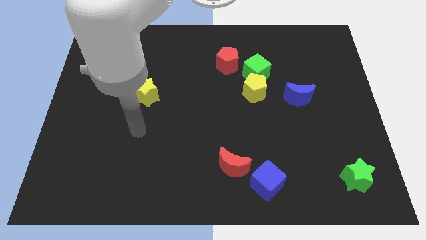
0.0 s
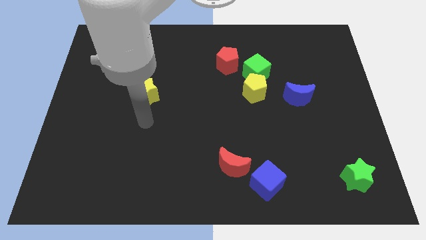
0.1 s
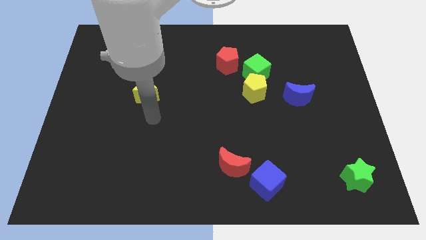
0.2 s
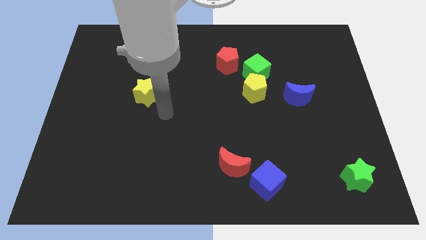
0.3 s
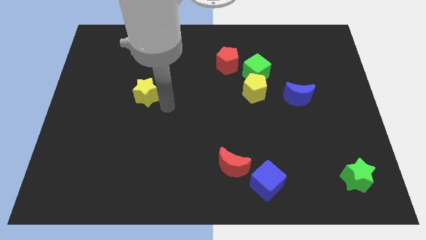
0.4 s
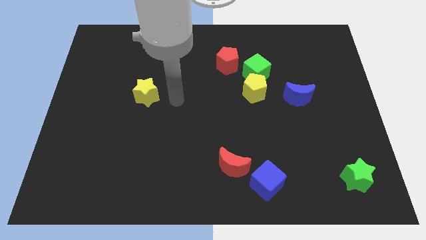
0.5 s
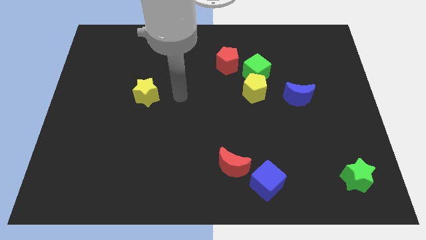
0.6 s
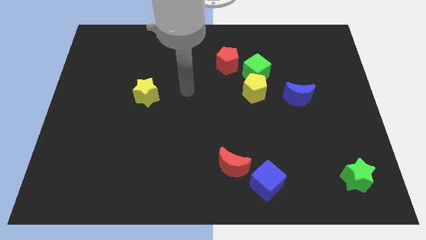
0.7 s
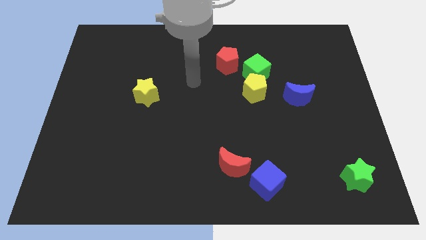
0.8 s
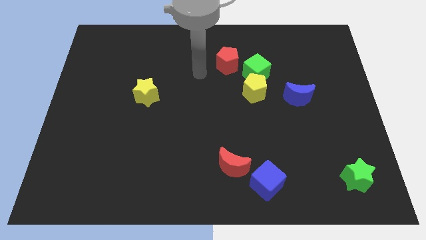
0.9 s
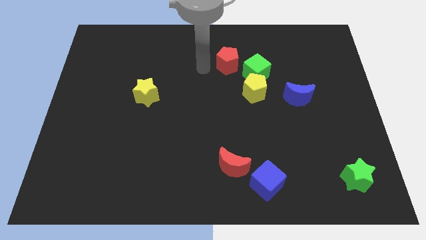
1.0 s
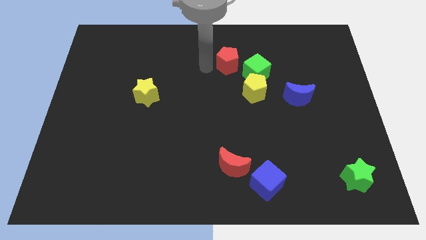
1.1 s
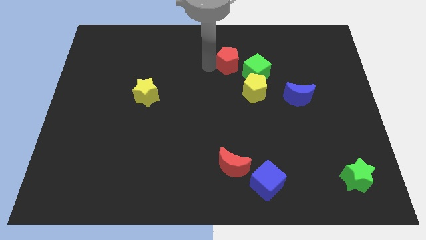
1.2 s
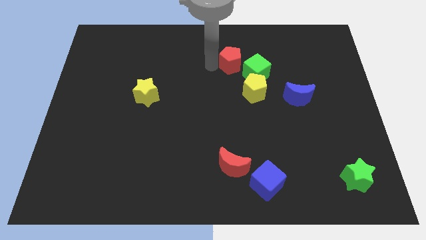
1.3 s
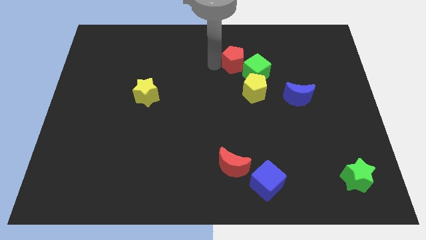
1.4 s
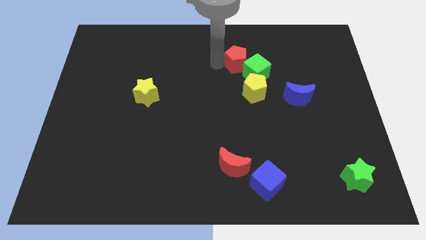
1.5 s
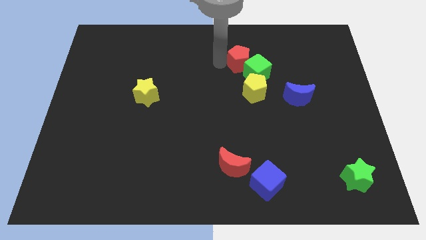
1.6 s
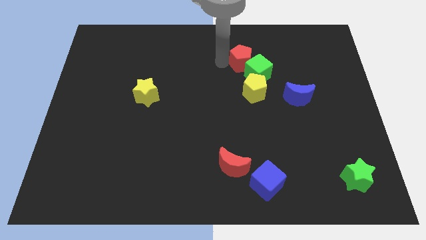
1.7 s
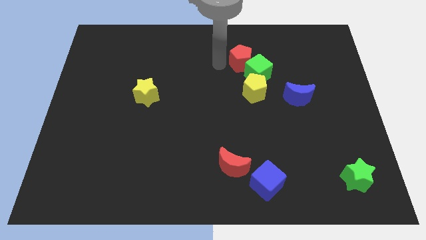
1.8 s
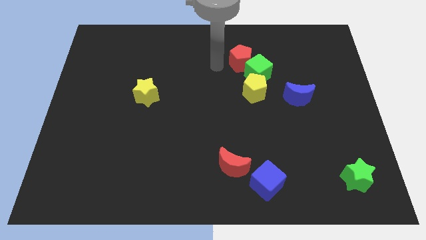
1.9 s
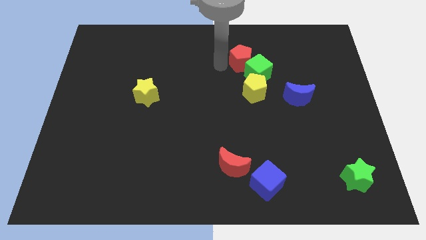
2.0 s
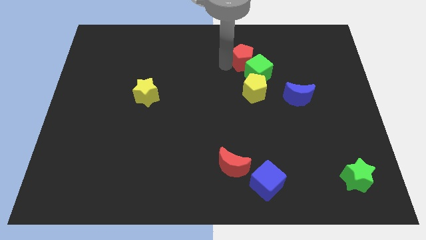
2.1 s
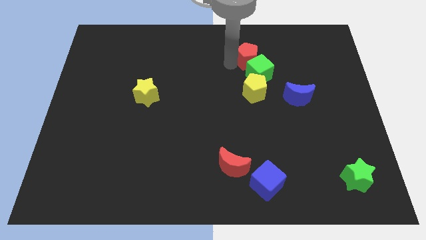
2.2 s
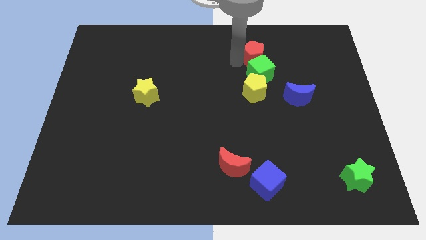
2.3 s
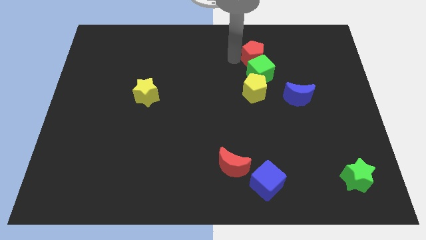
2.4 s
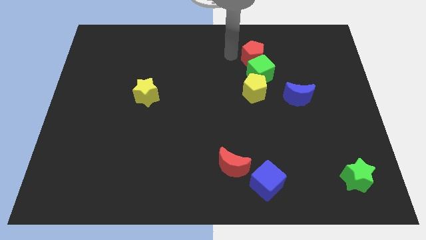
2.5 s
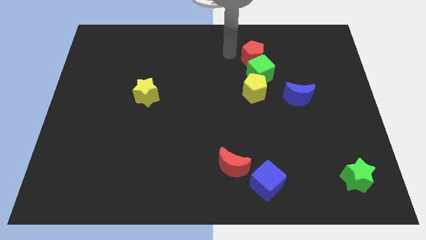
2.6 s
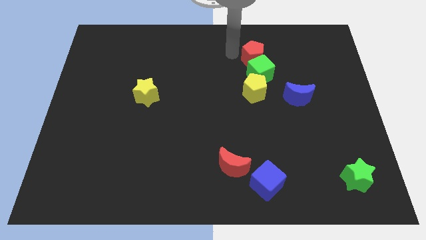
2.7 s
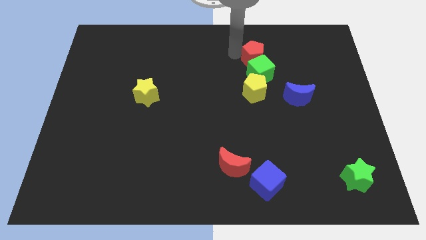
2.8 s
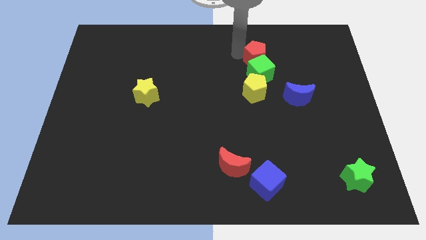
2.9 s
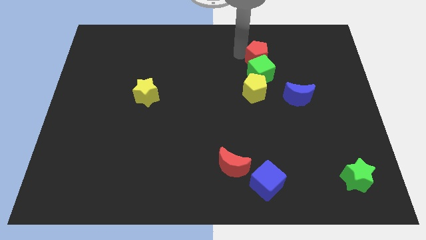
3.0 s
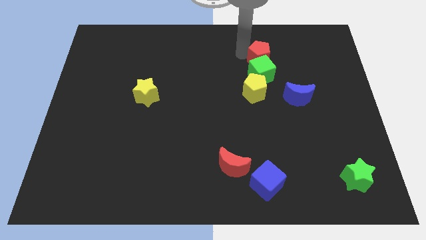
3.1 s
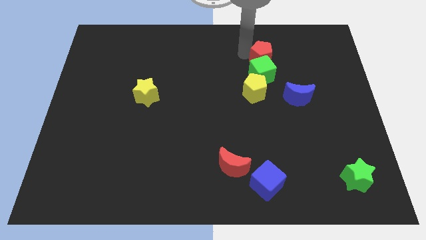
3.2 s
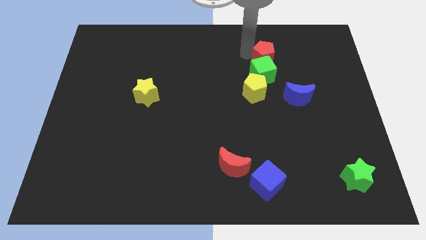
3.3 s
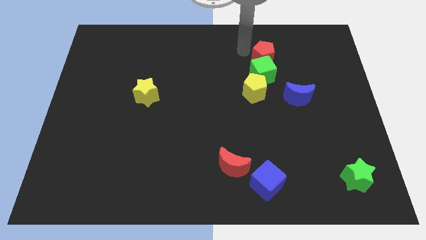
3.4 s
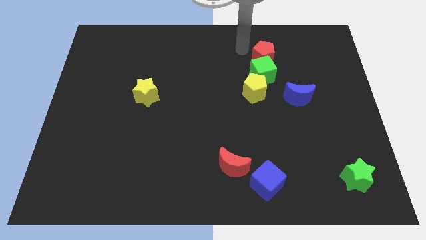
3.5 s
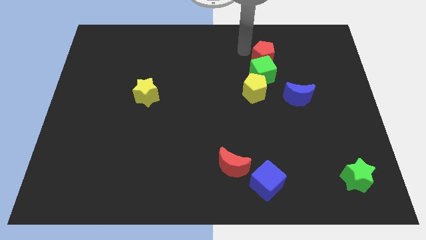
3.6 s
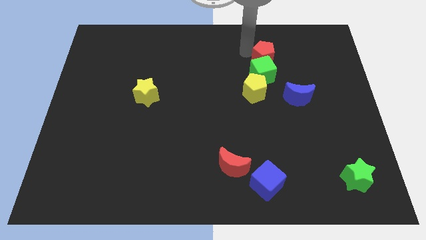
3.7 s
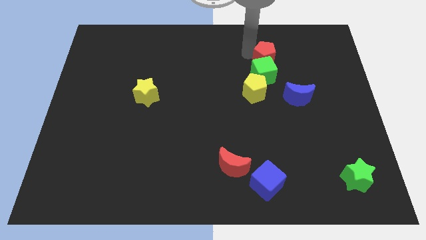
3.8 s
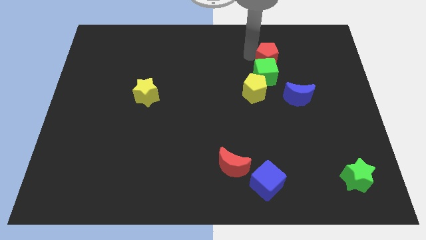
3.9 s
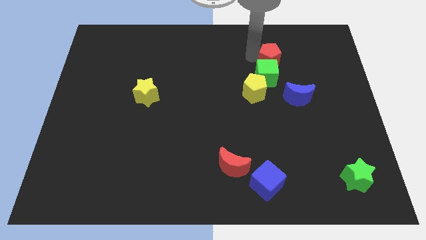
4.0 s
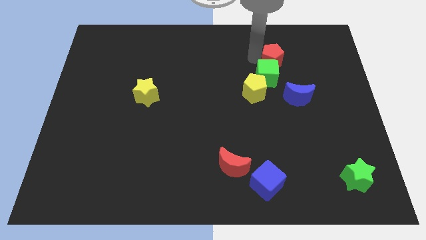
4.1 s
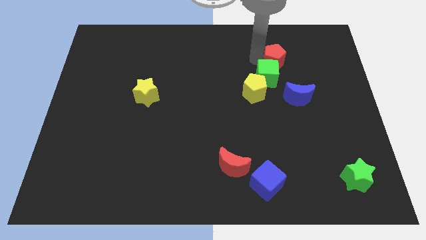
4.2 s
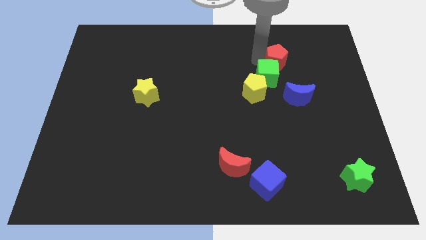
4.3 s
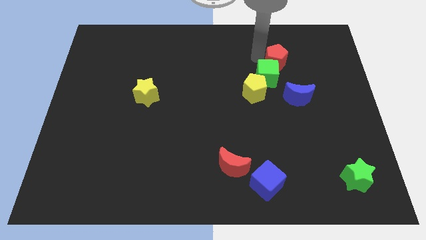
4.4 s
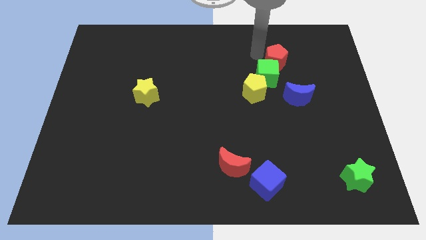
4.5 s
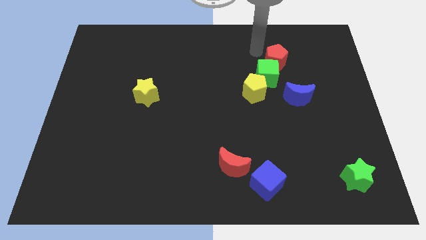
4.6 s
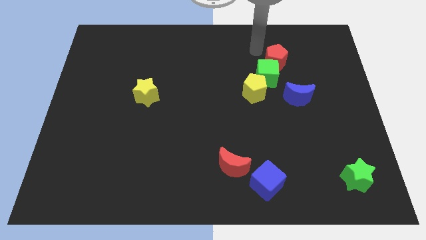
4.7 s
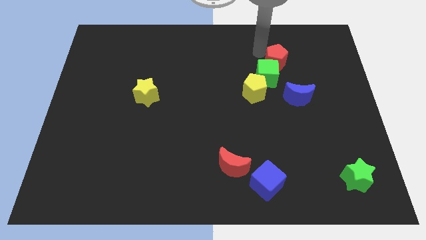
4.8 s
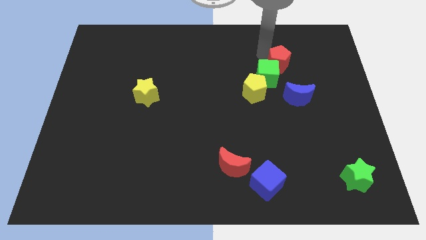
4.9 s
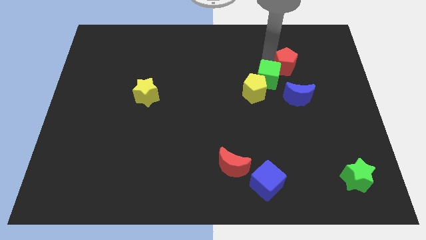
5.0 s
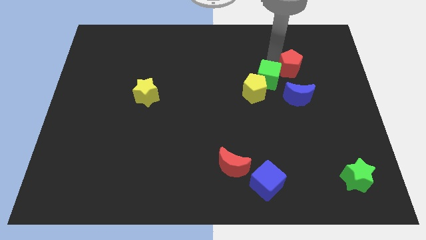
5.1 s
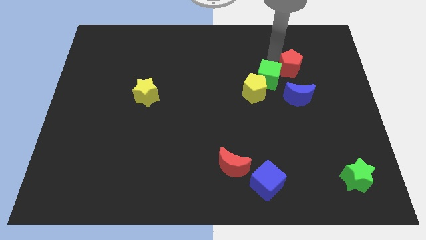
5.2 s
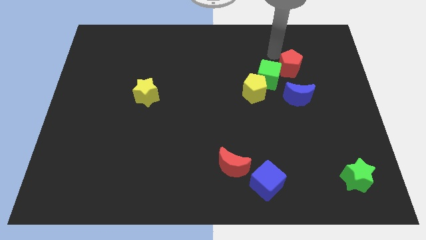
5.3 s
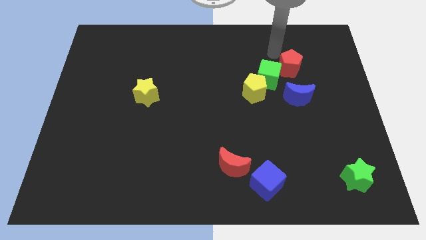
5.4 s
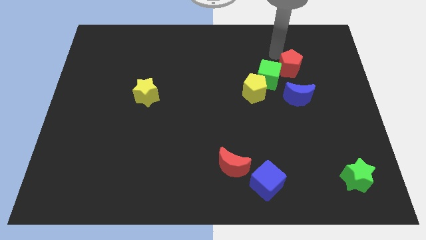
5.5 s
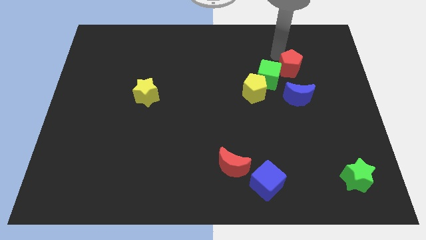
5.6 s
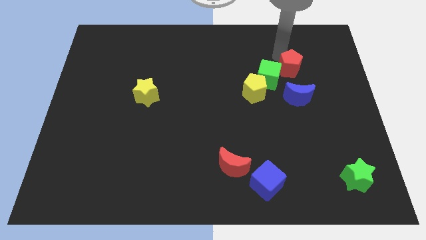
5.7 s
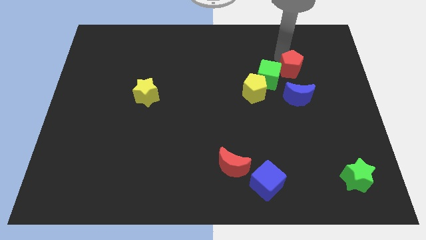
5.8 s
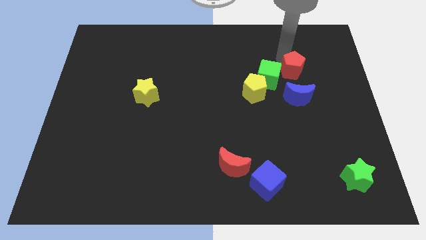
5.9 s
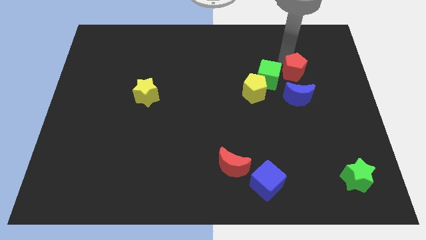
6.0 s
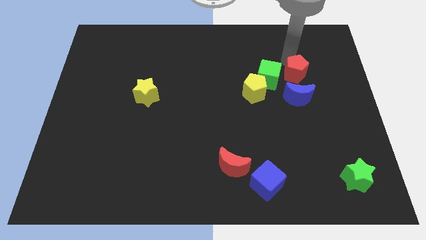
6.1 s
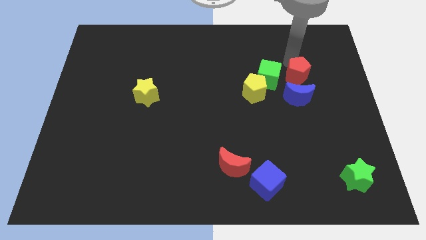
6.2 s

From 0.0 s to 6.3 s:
put the red pentagon to the top right of the blue moon

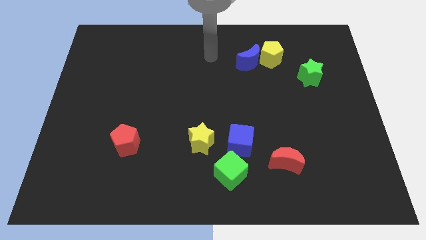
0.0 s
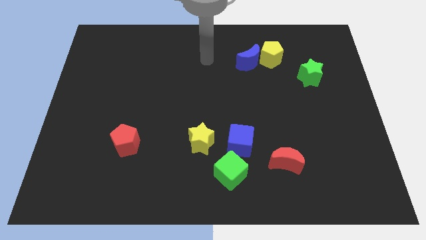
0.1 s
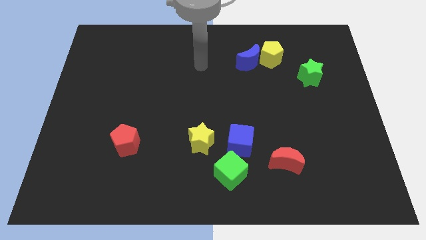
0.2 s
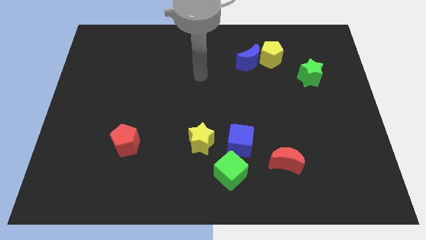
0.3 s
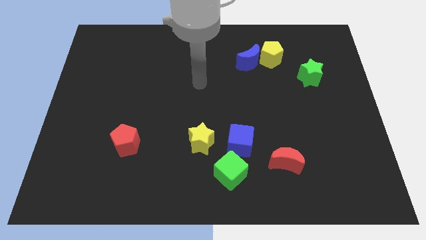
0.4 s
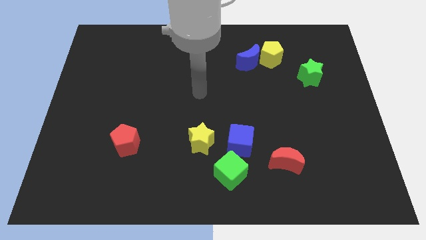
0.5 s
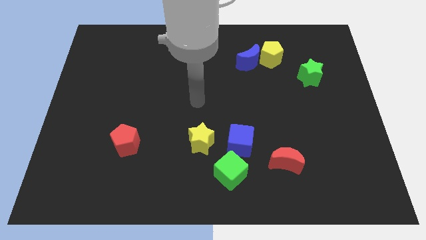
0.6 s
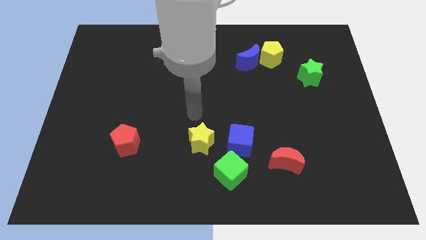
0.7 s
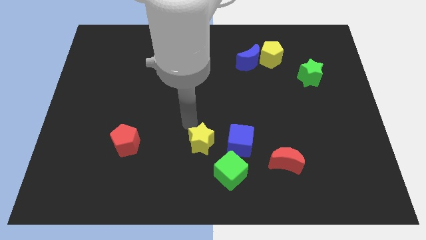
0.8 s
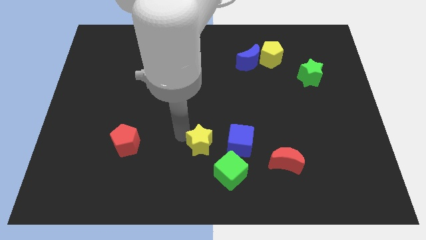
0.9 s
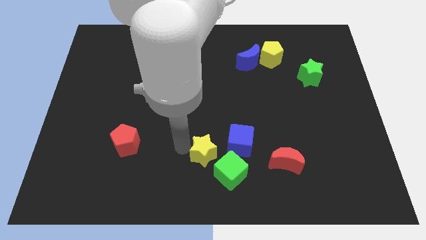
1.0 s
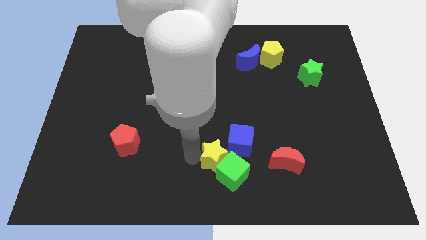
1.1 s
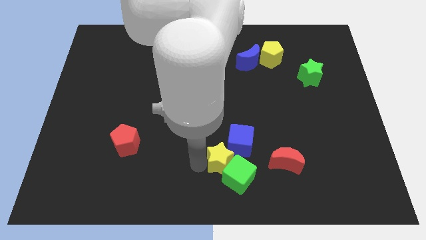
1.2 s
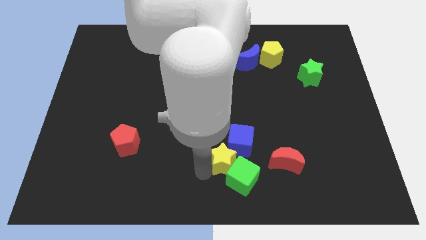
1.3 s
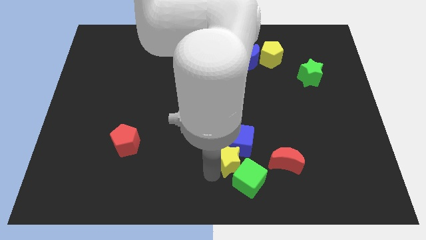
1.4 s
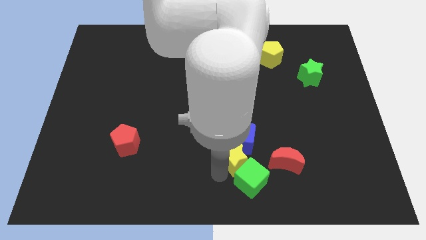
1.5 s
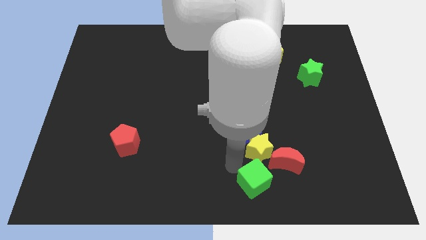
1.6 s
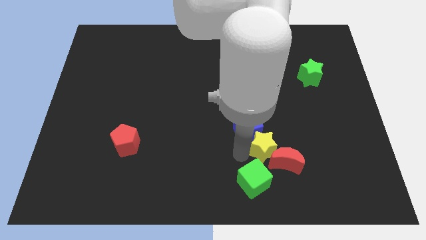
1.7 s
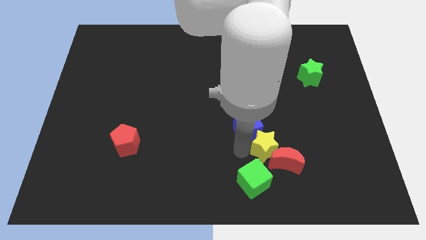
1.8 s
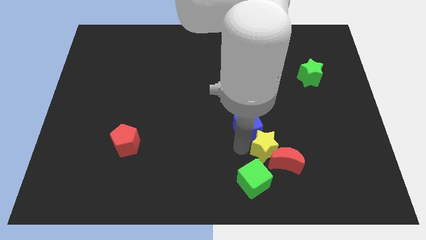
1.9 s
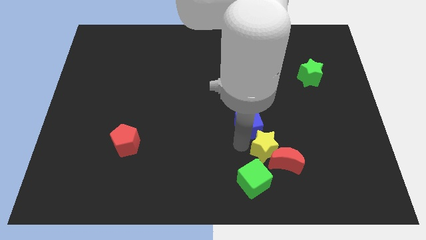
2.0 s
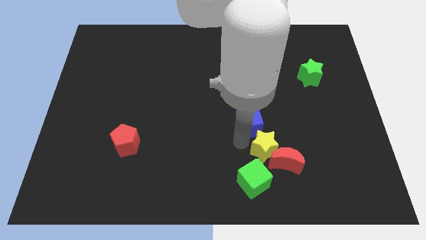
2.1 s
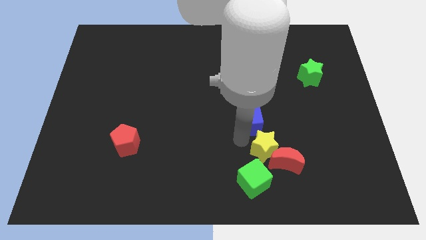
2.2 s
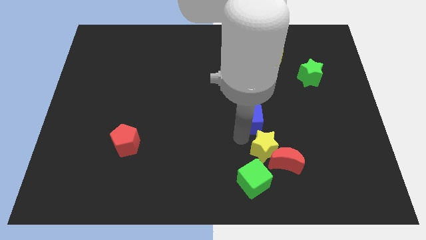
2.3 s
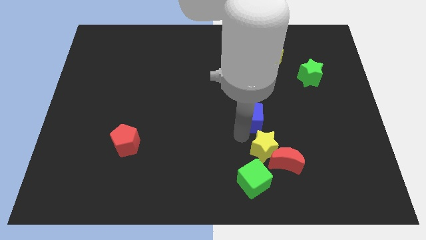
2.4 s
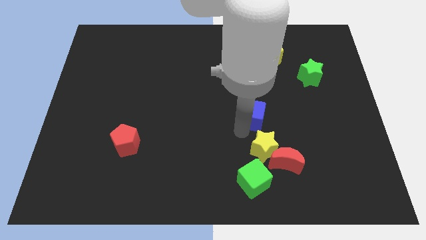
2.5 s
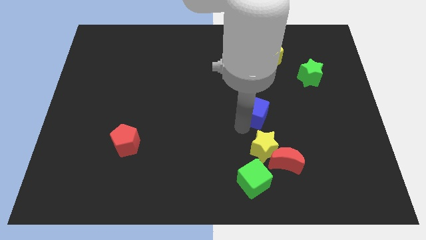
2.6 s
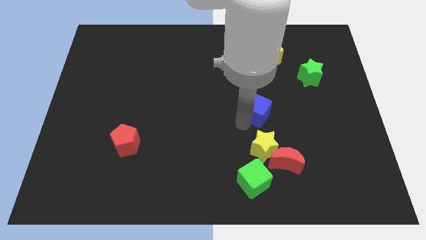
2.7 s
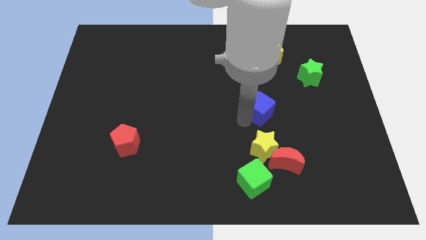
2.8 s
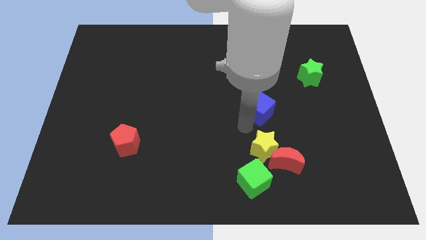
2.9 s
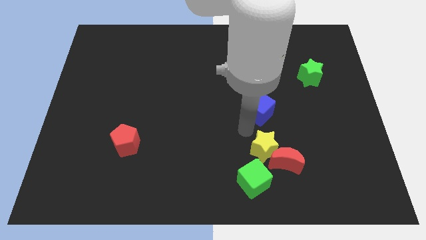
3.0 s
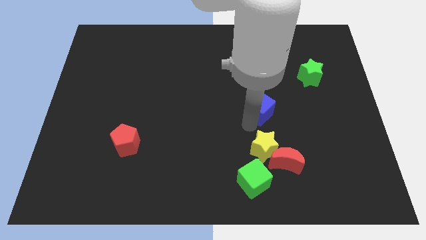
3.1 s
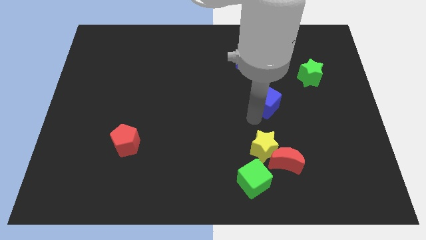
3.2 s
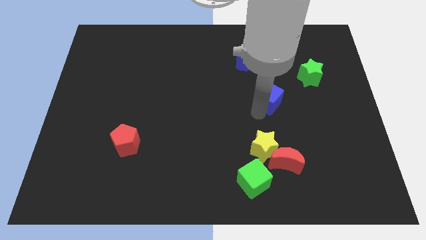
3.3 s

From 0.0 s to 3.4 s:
slide the blue cube to the bottom side of the yellow pentagon
